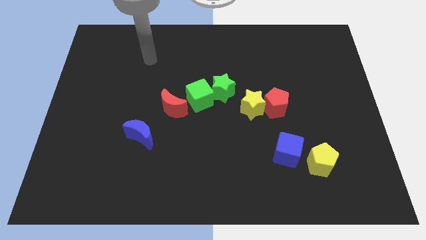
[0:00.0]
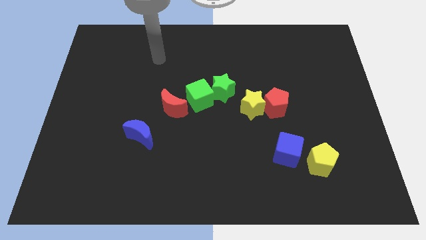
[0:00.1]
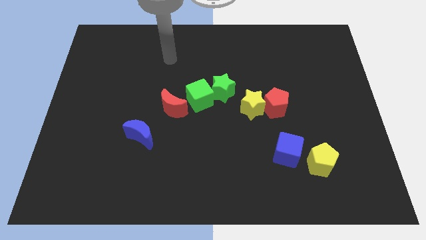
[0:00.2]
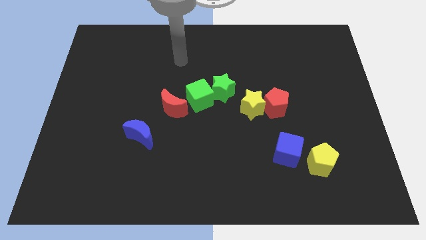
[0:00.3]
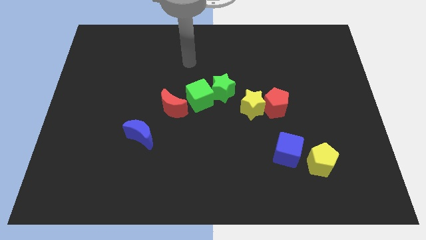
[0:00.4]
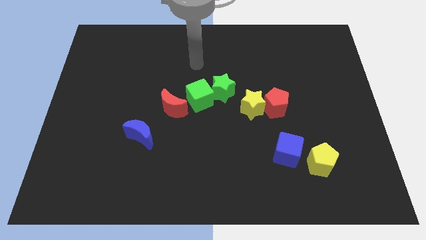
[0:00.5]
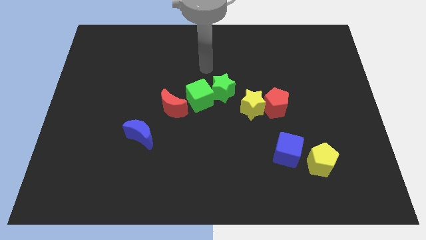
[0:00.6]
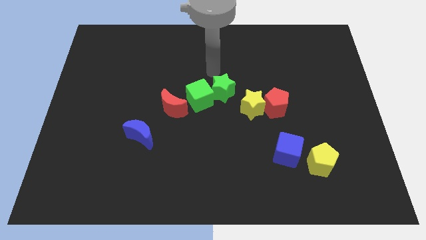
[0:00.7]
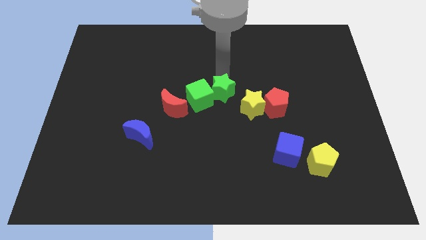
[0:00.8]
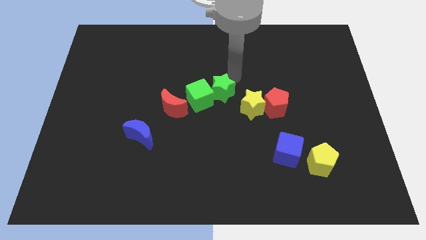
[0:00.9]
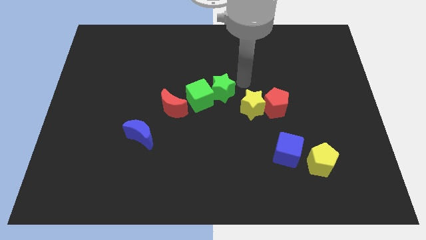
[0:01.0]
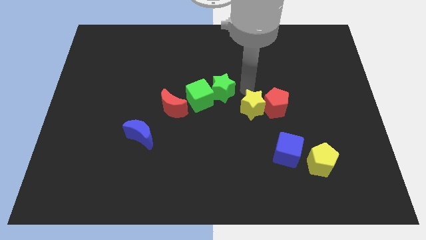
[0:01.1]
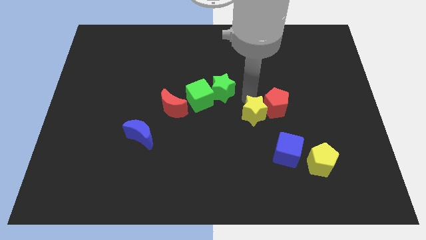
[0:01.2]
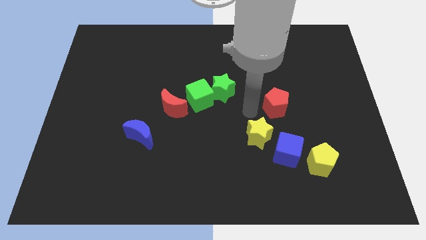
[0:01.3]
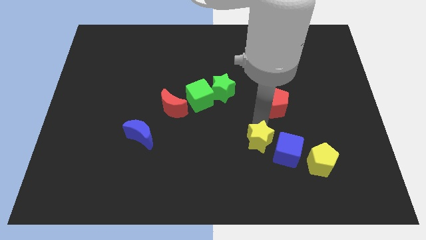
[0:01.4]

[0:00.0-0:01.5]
separate the red pentagon from the yellow star

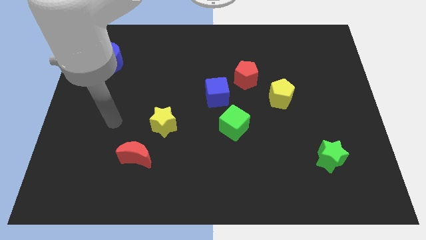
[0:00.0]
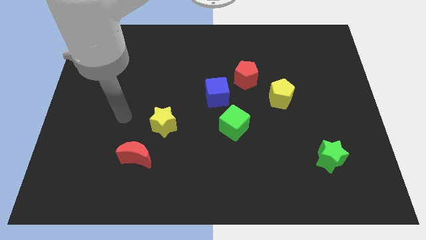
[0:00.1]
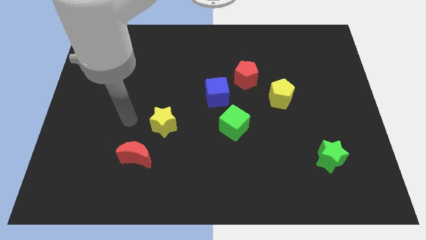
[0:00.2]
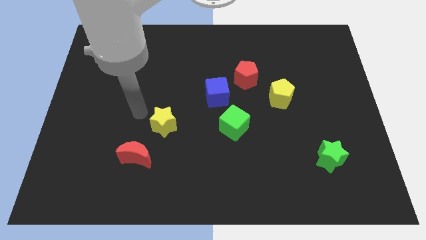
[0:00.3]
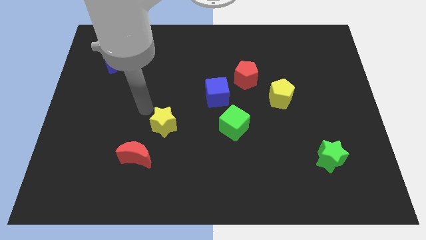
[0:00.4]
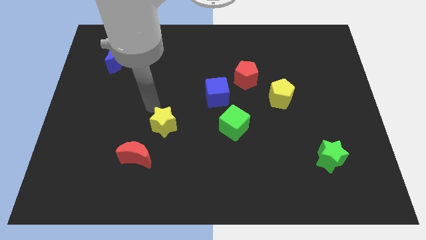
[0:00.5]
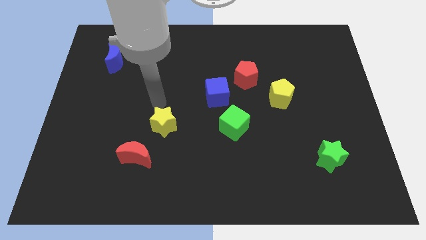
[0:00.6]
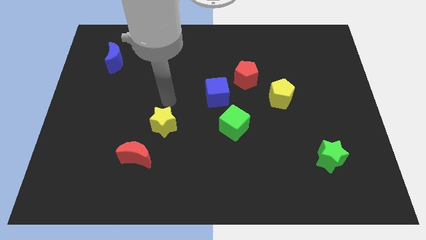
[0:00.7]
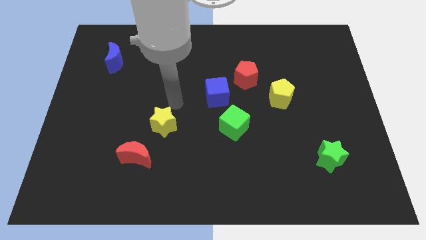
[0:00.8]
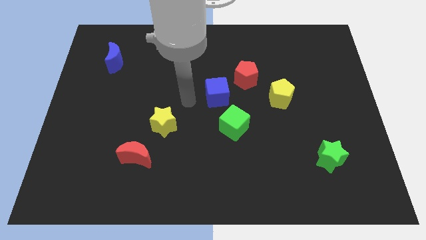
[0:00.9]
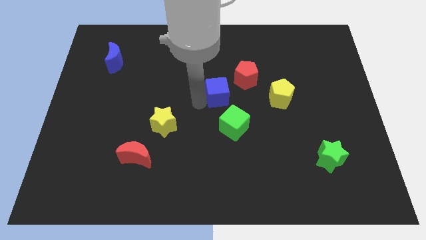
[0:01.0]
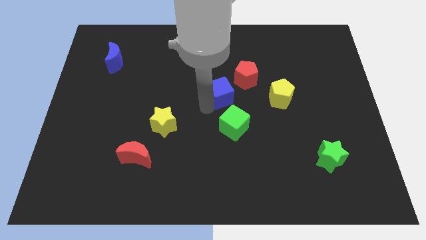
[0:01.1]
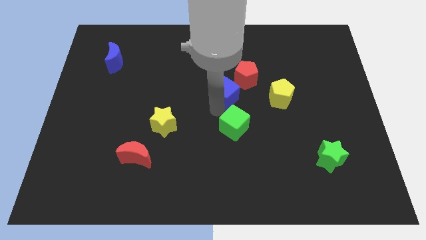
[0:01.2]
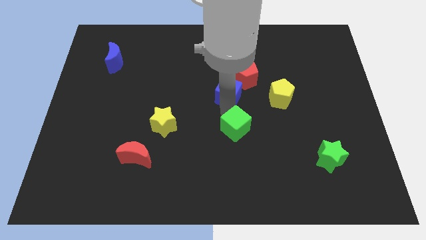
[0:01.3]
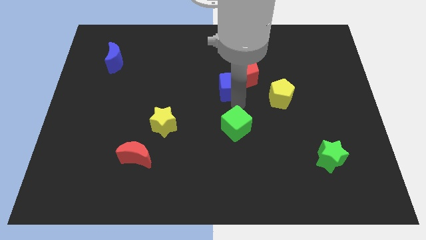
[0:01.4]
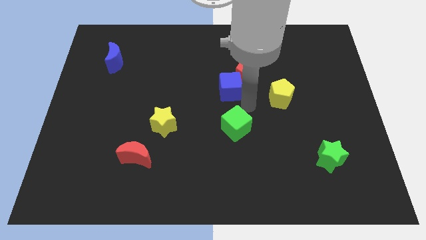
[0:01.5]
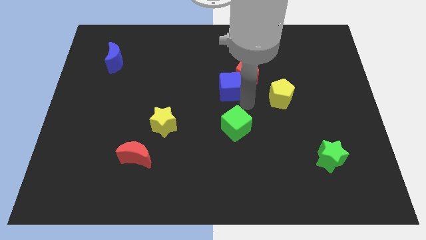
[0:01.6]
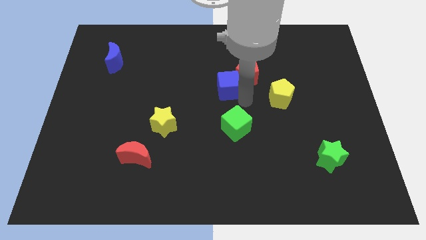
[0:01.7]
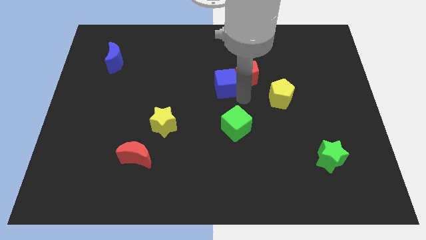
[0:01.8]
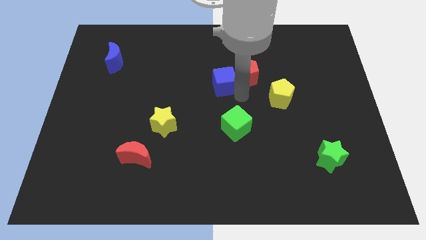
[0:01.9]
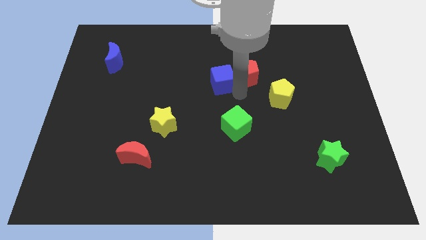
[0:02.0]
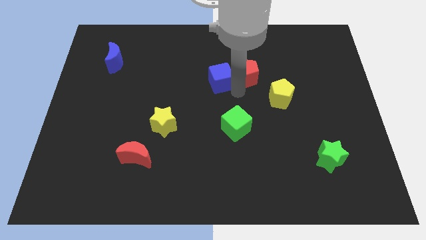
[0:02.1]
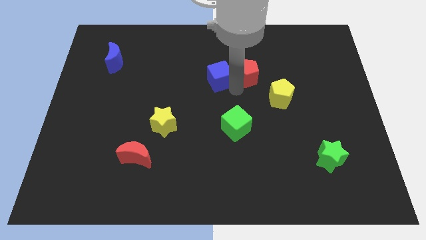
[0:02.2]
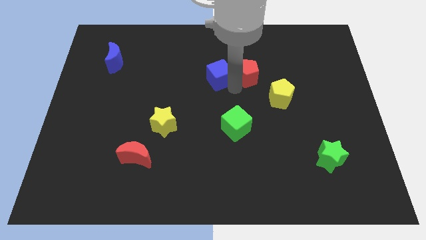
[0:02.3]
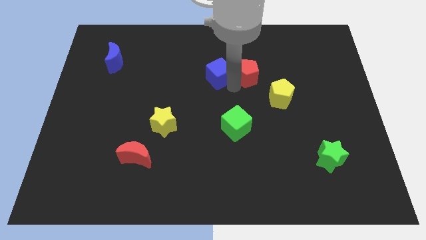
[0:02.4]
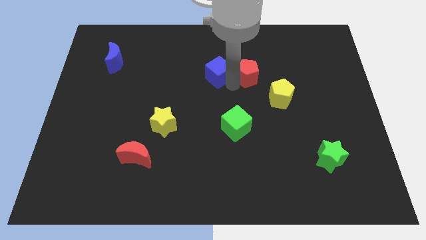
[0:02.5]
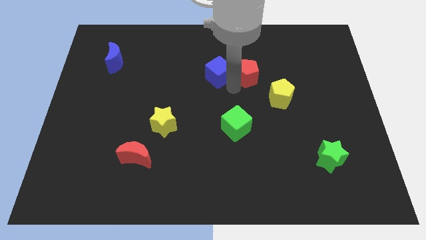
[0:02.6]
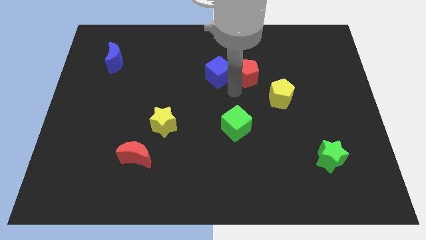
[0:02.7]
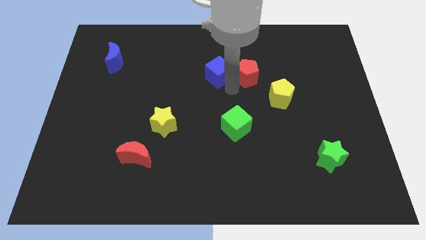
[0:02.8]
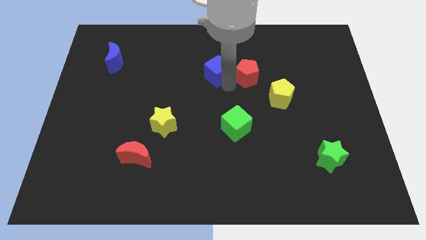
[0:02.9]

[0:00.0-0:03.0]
pull the blue cube apart from the red pentagon and green cube

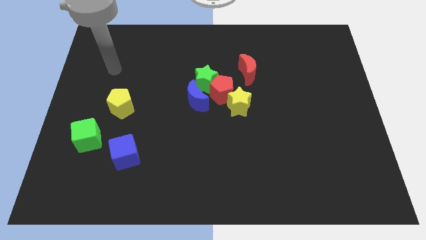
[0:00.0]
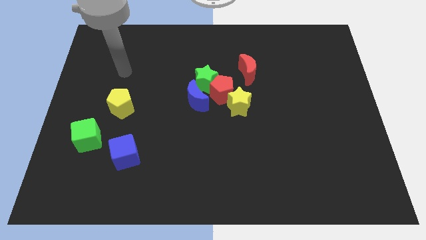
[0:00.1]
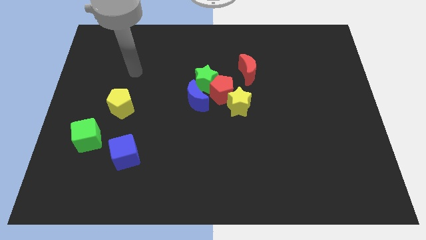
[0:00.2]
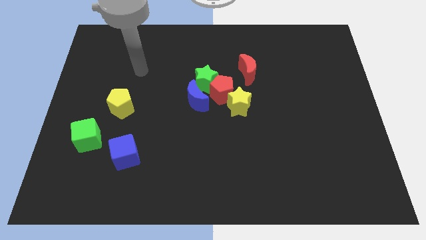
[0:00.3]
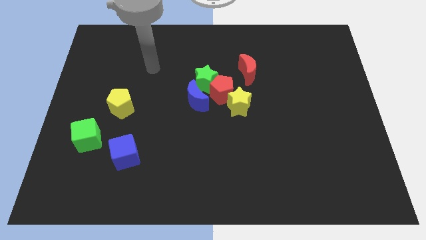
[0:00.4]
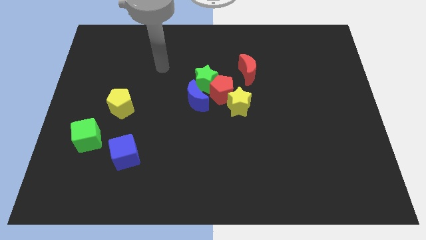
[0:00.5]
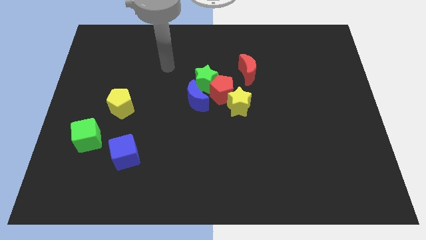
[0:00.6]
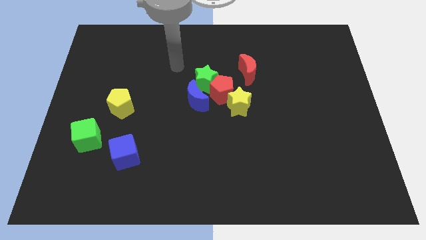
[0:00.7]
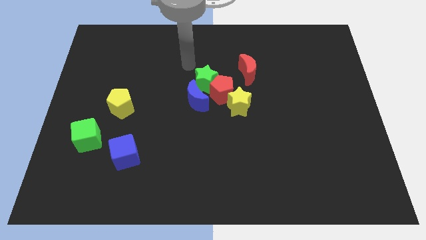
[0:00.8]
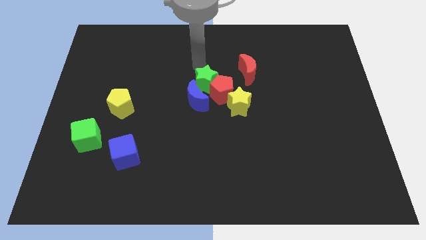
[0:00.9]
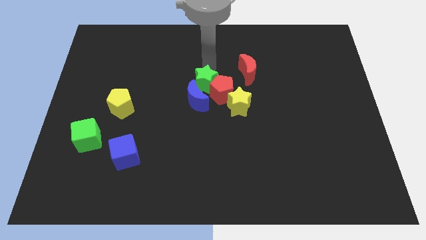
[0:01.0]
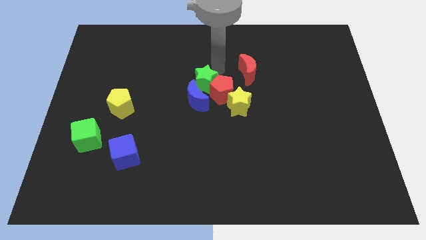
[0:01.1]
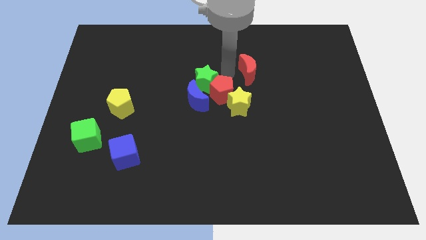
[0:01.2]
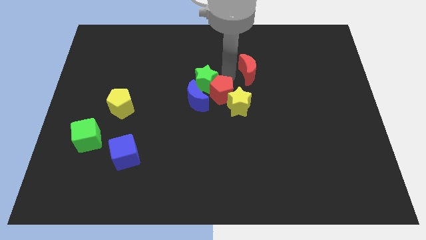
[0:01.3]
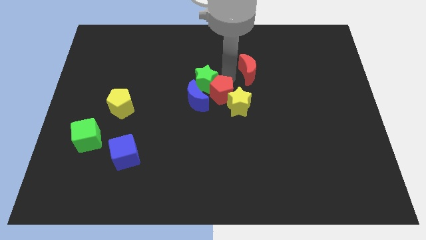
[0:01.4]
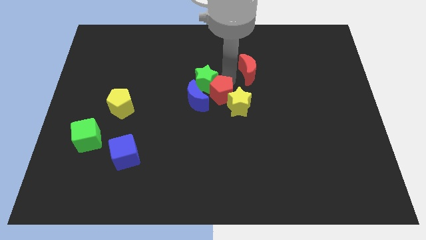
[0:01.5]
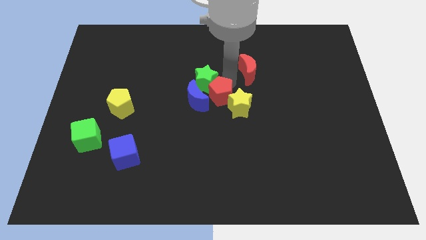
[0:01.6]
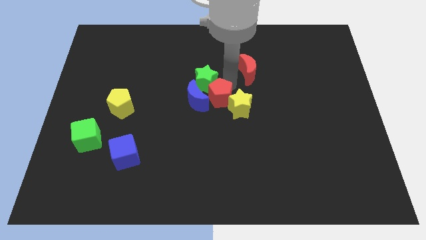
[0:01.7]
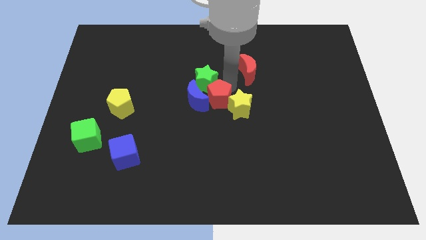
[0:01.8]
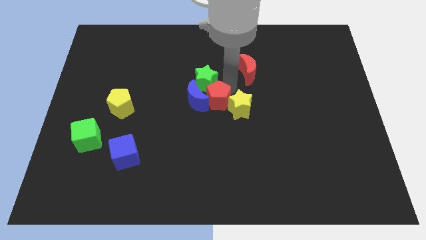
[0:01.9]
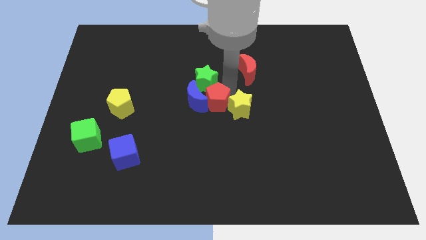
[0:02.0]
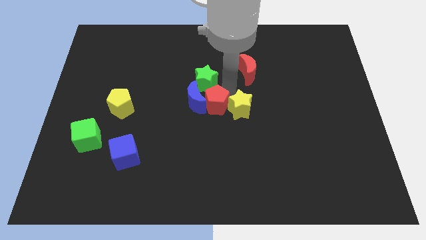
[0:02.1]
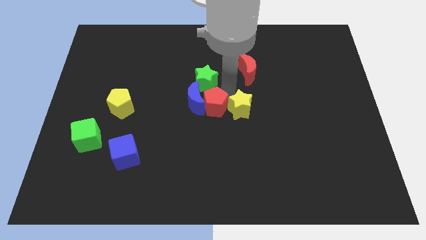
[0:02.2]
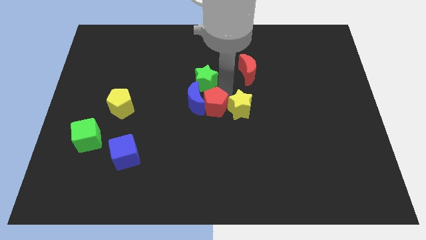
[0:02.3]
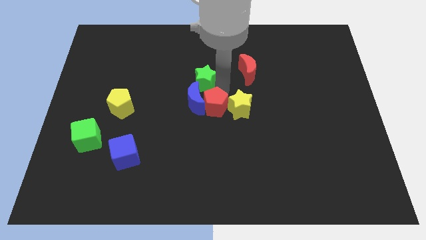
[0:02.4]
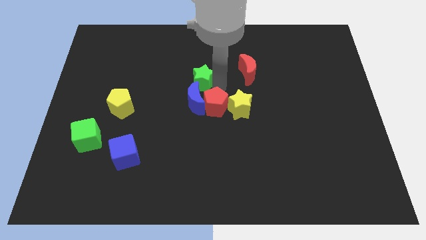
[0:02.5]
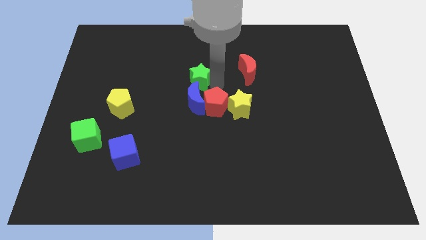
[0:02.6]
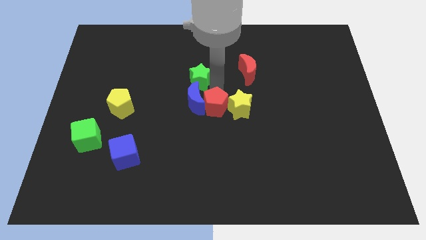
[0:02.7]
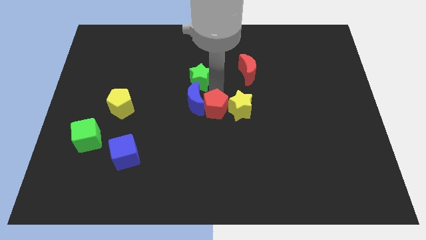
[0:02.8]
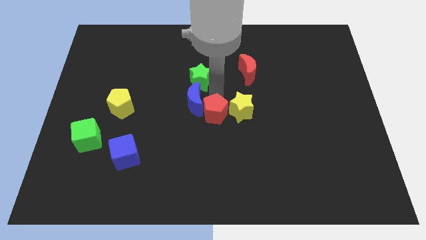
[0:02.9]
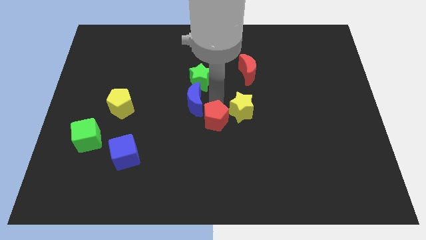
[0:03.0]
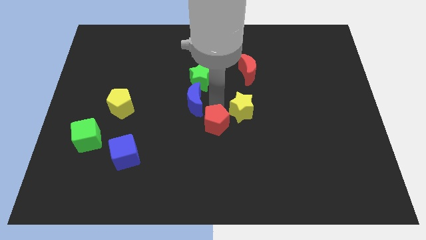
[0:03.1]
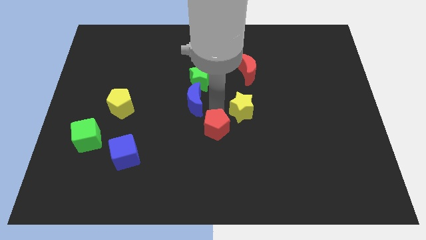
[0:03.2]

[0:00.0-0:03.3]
pull the red pentagon apart from the group of blocks

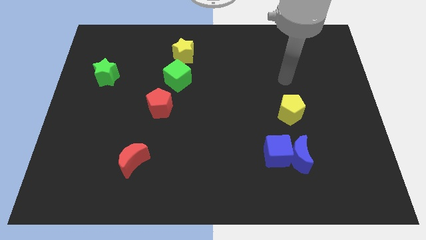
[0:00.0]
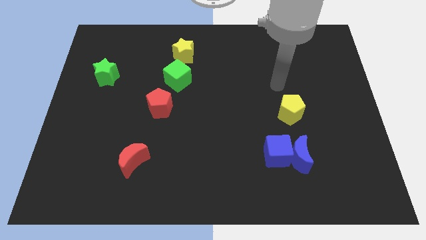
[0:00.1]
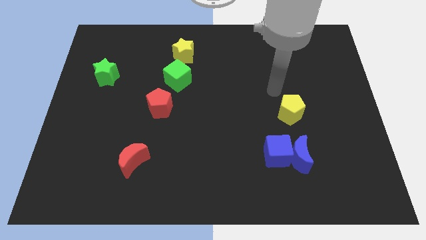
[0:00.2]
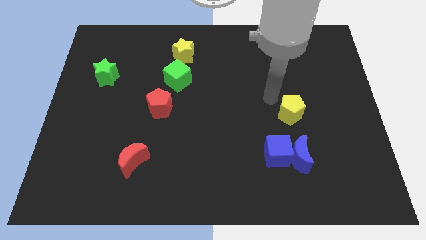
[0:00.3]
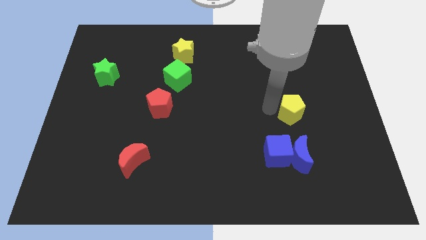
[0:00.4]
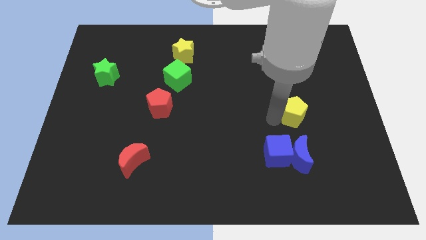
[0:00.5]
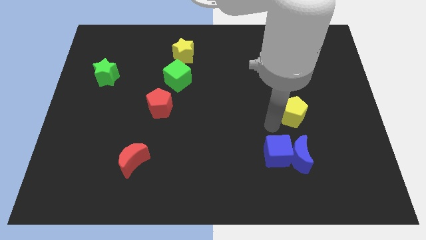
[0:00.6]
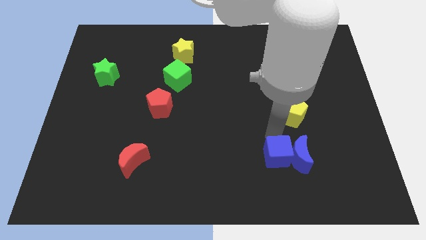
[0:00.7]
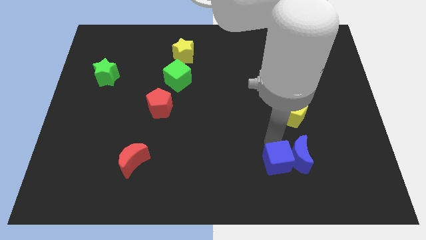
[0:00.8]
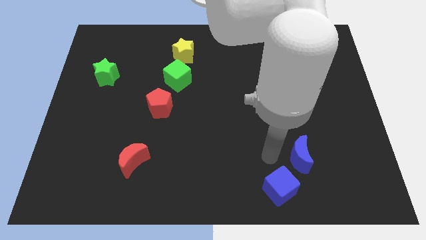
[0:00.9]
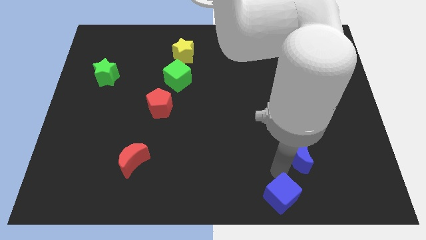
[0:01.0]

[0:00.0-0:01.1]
pull the blue moon apart from the blue cube

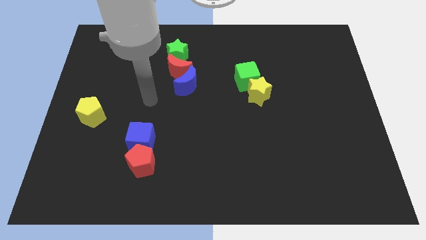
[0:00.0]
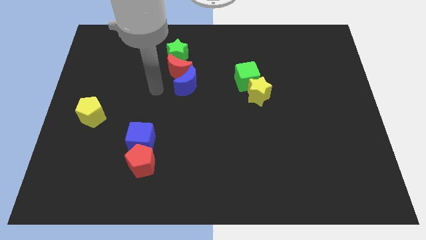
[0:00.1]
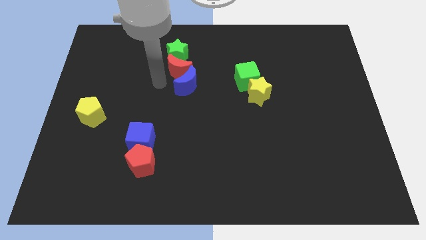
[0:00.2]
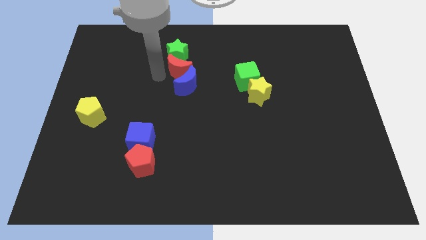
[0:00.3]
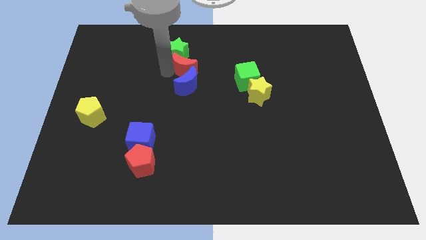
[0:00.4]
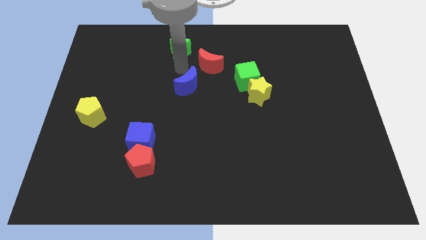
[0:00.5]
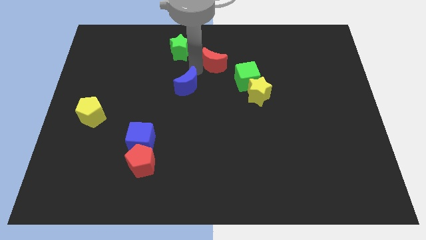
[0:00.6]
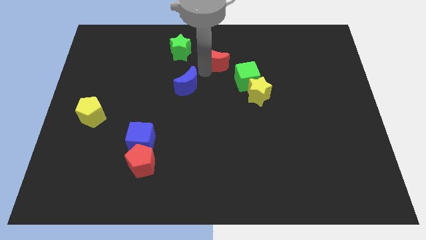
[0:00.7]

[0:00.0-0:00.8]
pull the blue moon apart from the red moon
